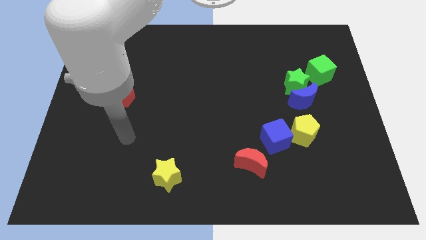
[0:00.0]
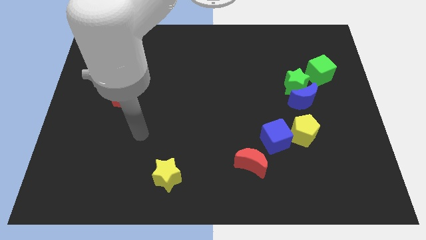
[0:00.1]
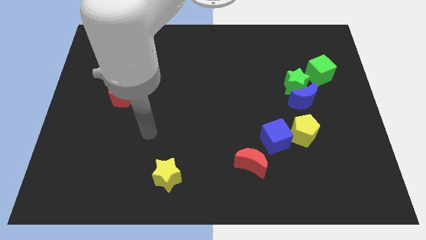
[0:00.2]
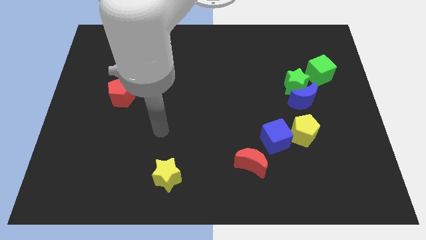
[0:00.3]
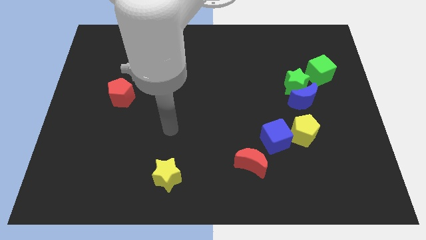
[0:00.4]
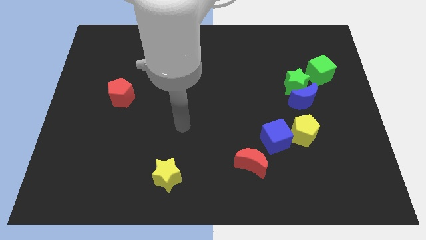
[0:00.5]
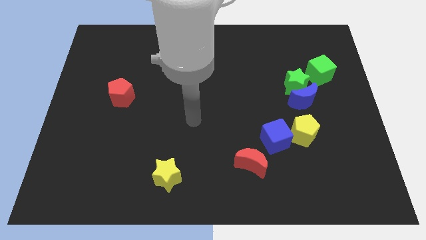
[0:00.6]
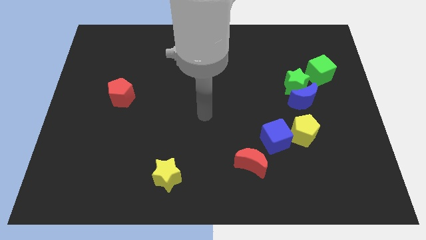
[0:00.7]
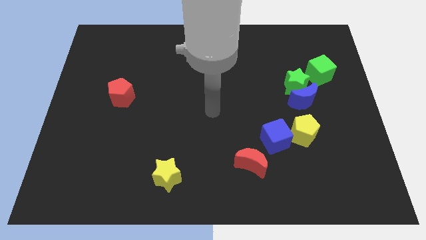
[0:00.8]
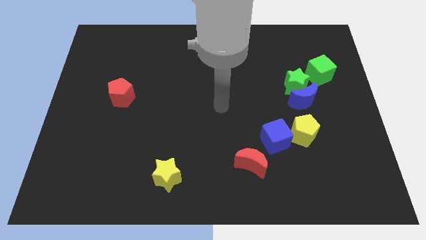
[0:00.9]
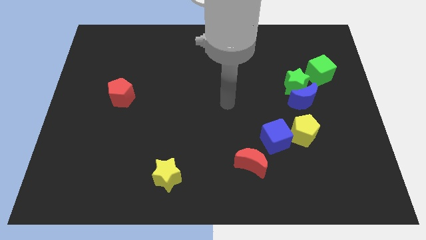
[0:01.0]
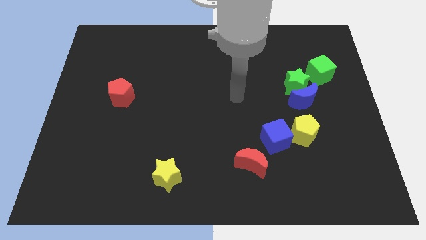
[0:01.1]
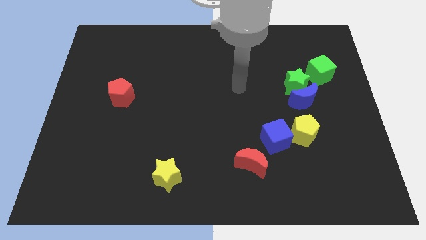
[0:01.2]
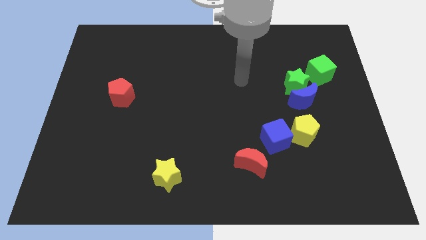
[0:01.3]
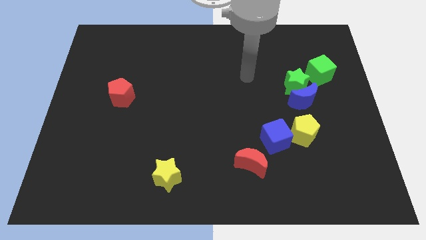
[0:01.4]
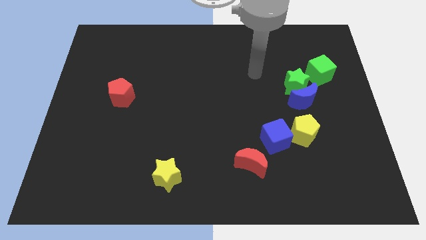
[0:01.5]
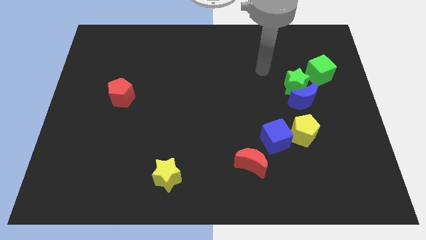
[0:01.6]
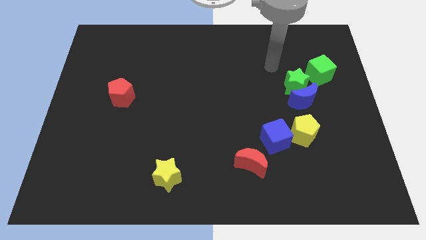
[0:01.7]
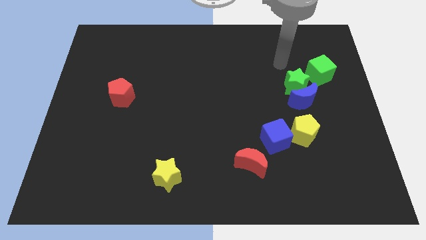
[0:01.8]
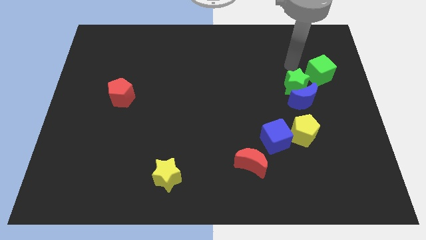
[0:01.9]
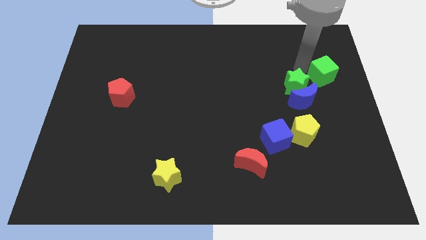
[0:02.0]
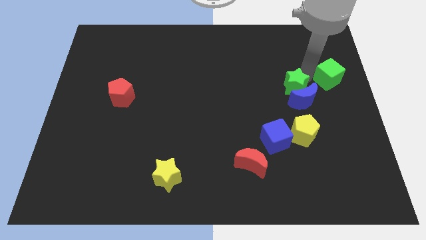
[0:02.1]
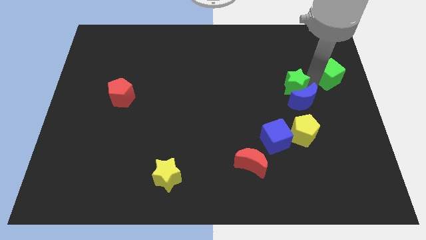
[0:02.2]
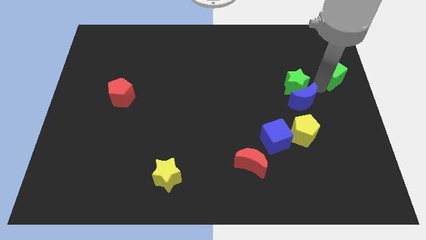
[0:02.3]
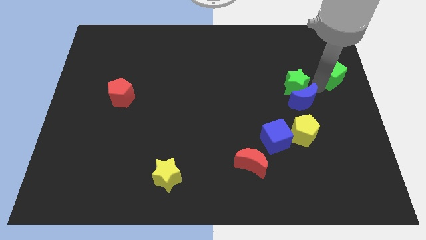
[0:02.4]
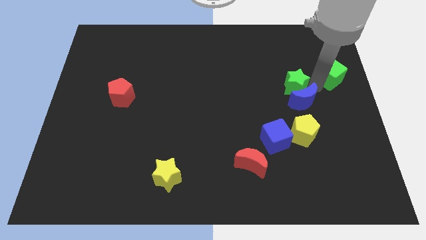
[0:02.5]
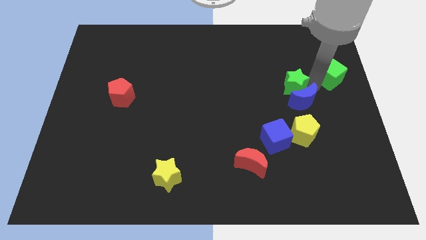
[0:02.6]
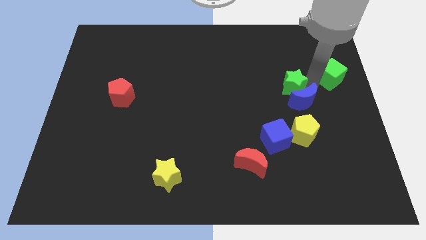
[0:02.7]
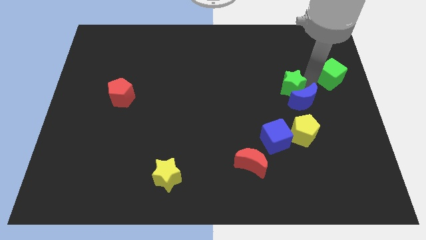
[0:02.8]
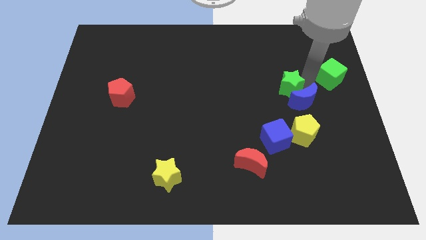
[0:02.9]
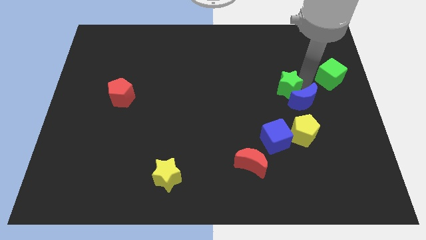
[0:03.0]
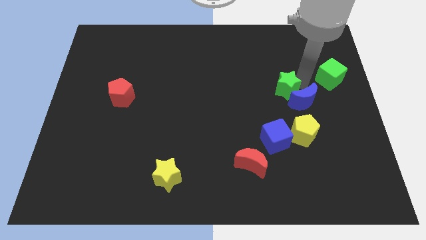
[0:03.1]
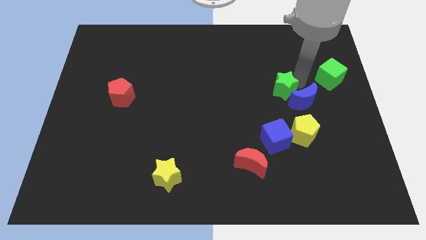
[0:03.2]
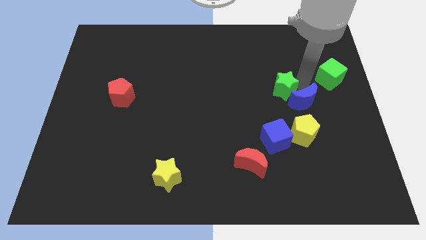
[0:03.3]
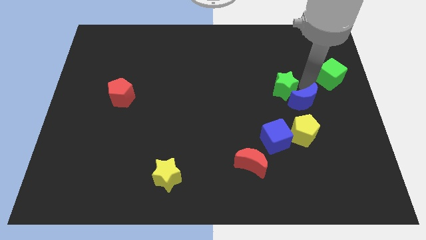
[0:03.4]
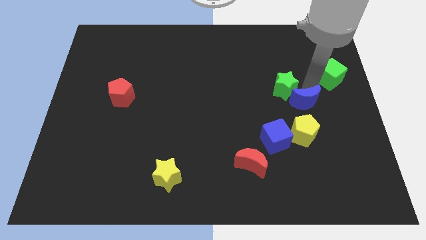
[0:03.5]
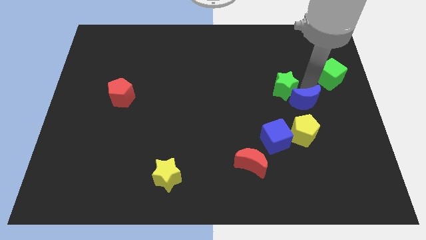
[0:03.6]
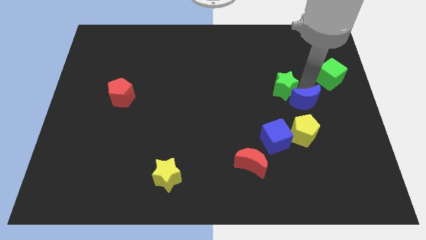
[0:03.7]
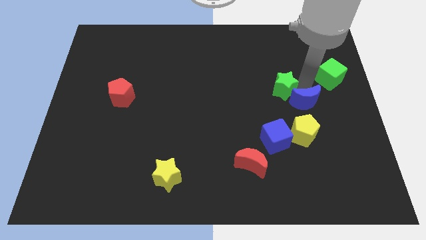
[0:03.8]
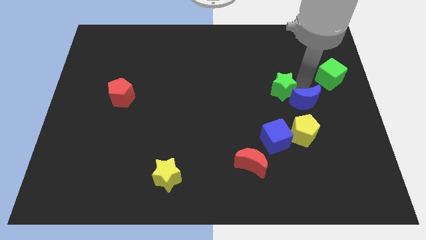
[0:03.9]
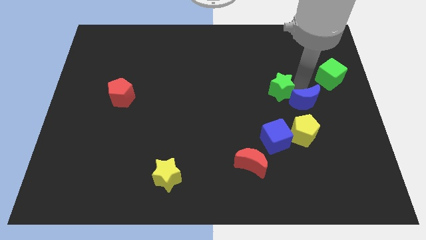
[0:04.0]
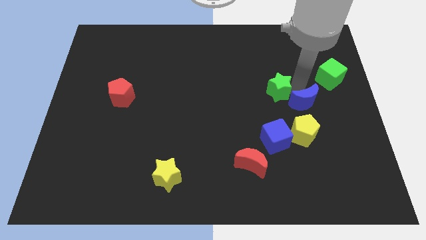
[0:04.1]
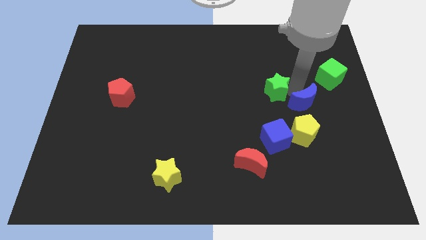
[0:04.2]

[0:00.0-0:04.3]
separate the green star from the blue moon and green cube

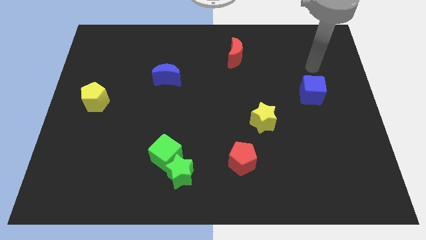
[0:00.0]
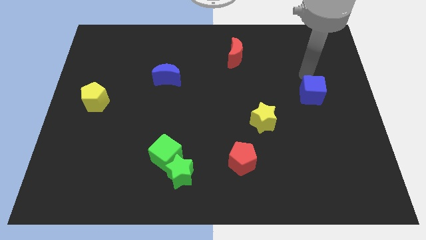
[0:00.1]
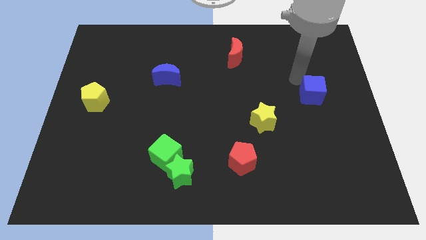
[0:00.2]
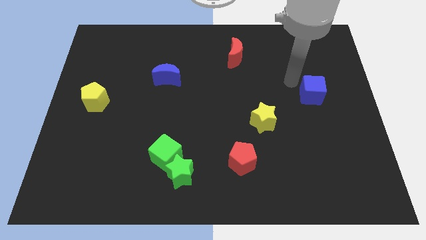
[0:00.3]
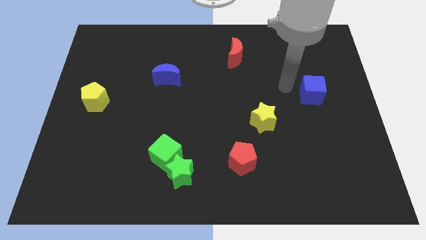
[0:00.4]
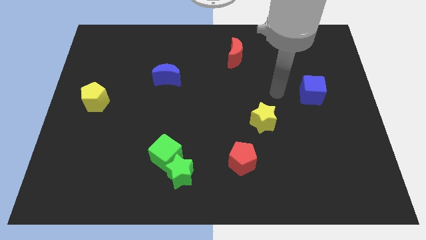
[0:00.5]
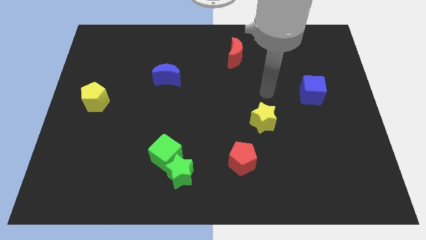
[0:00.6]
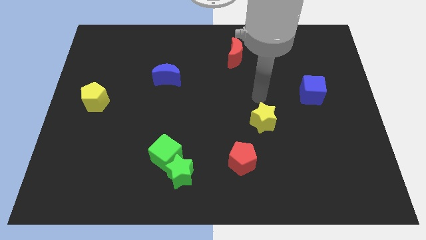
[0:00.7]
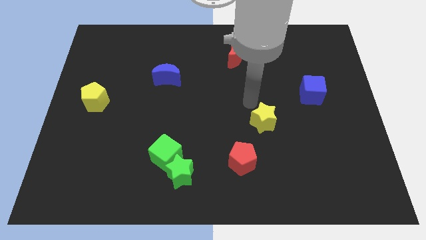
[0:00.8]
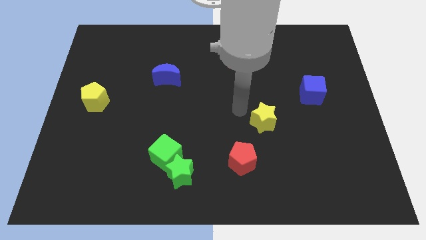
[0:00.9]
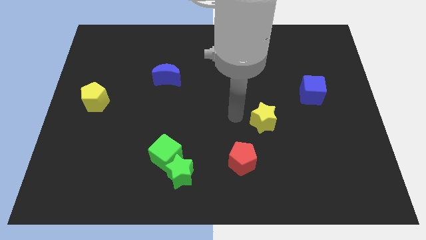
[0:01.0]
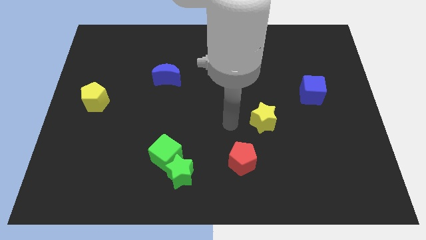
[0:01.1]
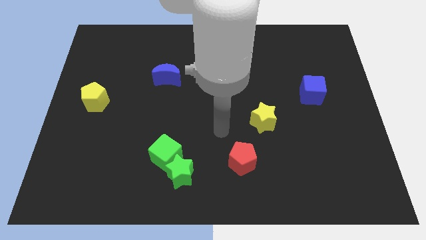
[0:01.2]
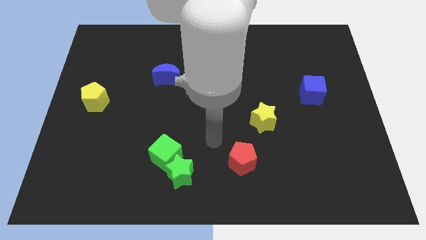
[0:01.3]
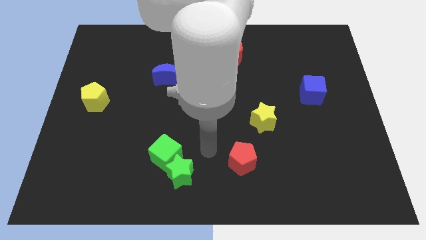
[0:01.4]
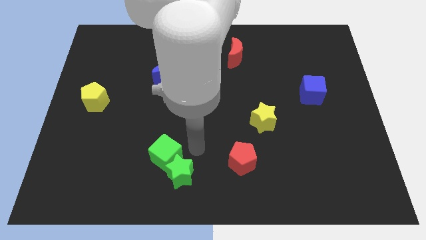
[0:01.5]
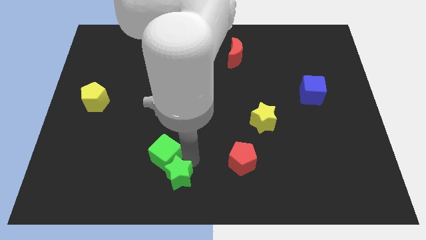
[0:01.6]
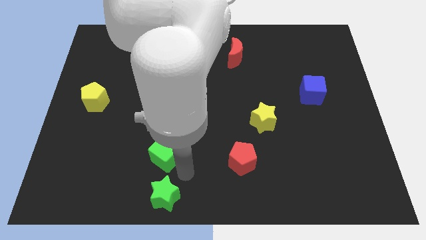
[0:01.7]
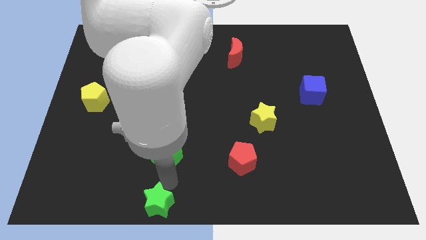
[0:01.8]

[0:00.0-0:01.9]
pull the green cube apart from the green star

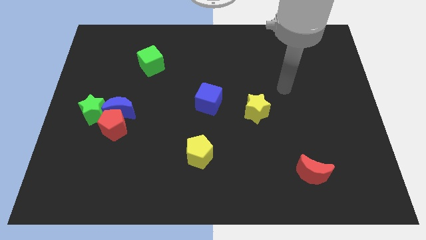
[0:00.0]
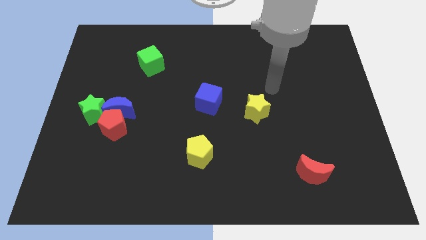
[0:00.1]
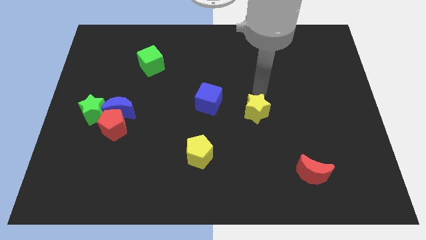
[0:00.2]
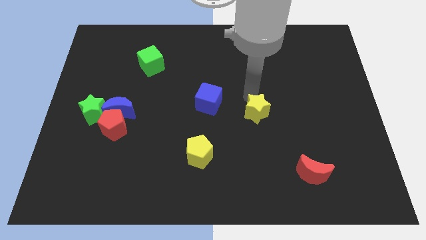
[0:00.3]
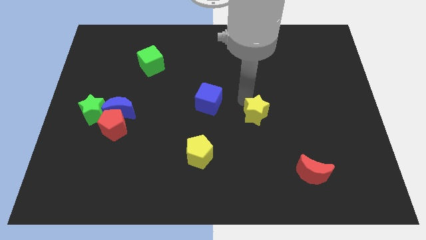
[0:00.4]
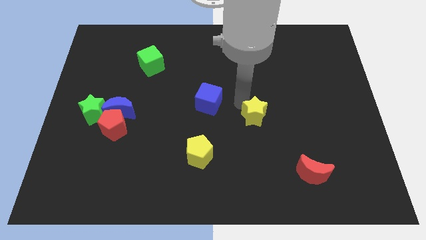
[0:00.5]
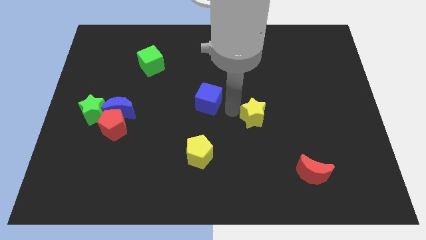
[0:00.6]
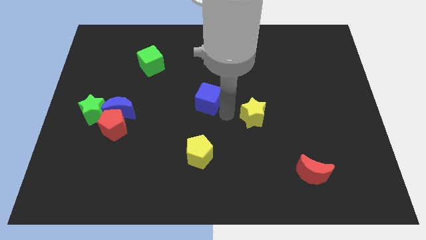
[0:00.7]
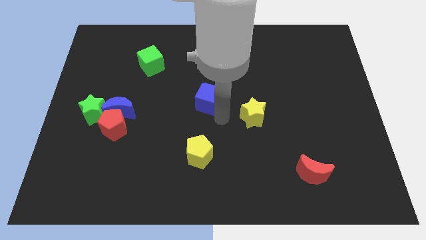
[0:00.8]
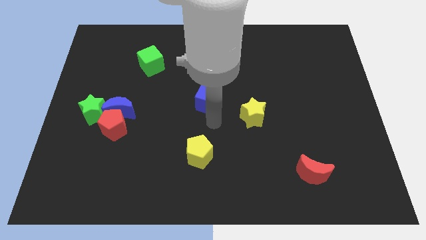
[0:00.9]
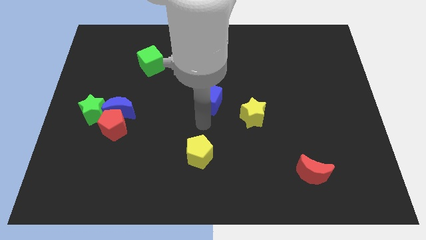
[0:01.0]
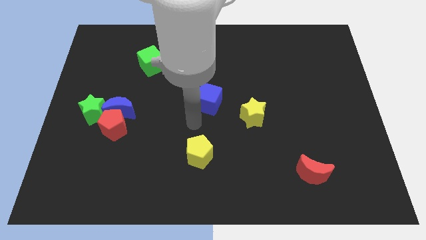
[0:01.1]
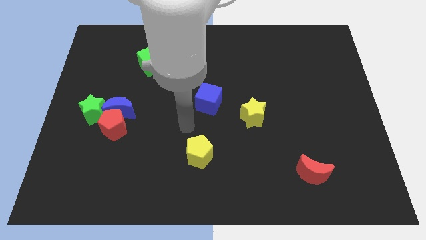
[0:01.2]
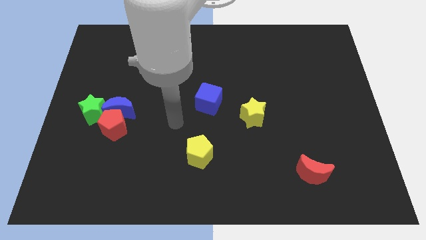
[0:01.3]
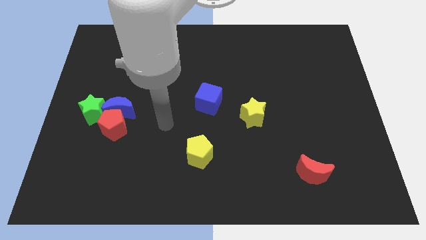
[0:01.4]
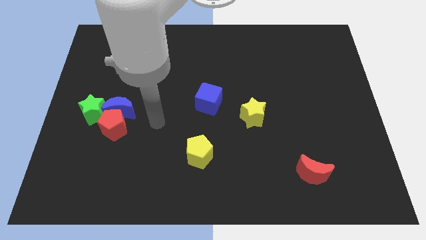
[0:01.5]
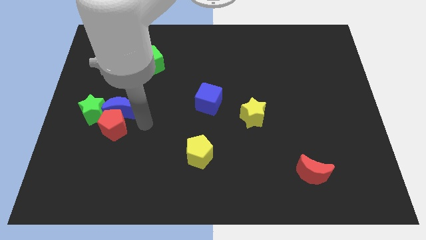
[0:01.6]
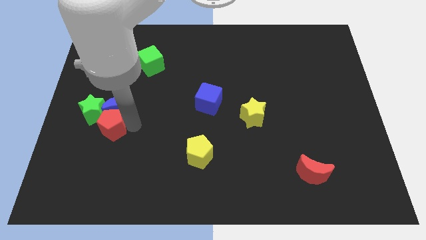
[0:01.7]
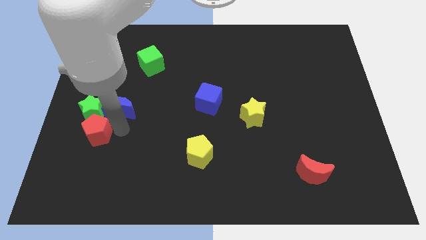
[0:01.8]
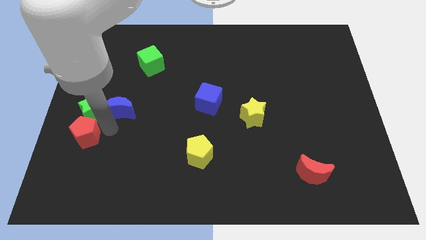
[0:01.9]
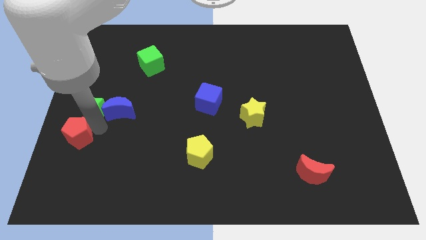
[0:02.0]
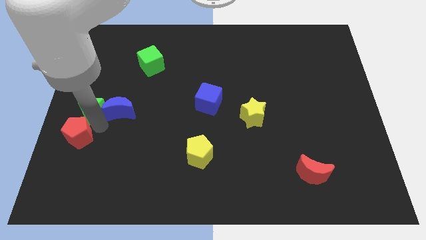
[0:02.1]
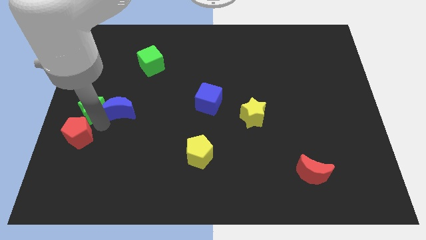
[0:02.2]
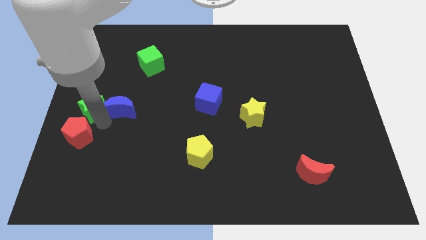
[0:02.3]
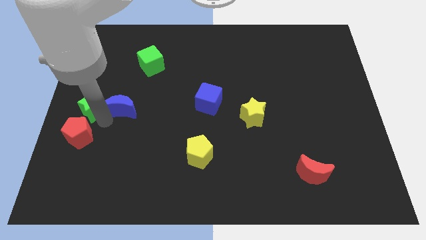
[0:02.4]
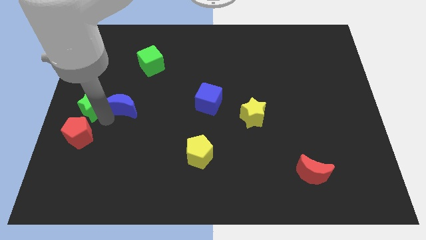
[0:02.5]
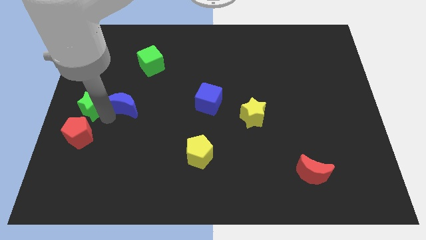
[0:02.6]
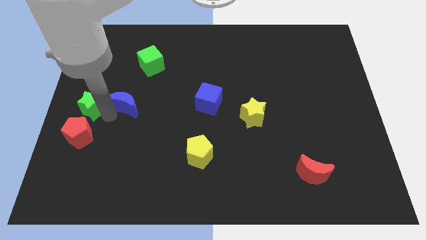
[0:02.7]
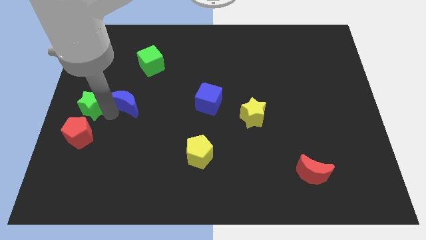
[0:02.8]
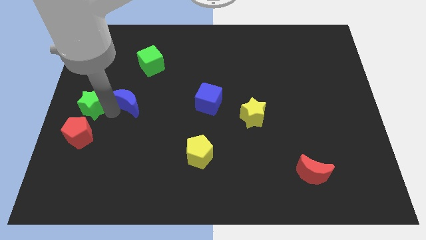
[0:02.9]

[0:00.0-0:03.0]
separate the blue moon from the red pentagon and green star

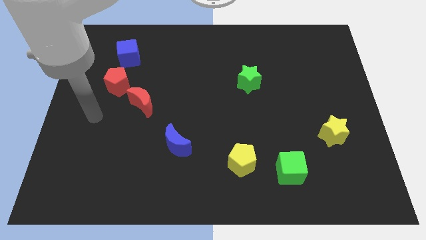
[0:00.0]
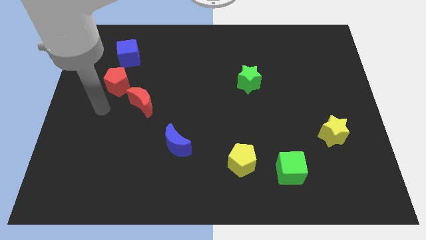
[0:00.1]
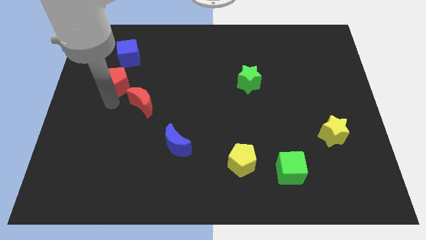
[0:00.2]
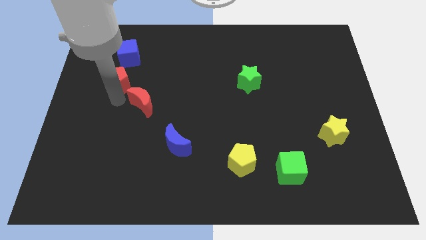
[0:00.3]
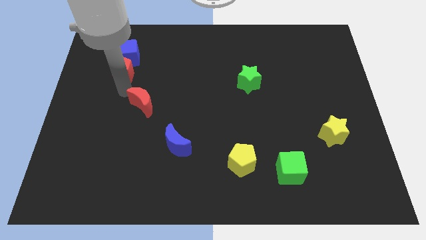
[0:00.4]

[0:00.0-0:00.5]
pull the red moon apart from the red pentagon
